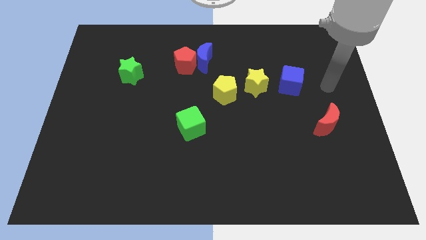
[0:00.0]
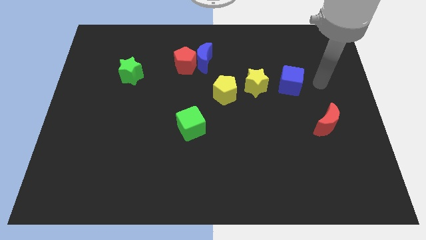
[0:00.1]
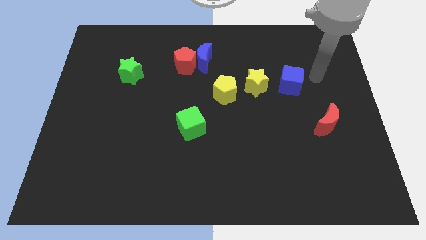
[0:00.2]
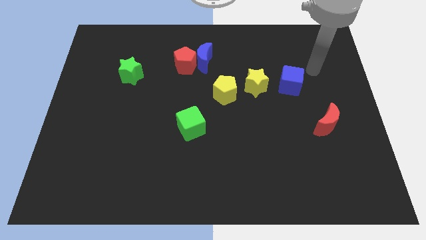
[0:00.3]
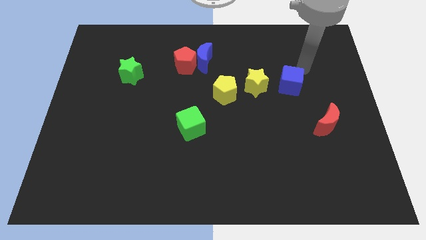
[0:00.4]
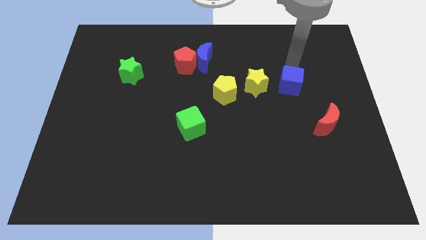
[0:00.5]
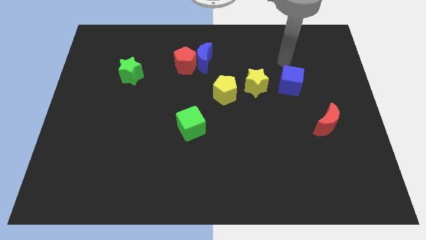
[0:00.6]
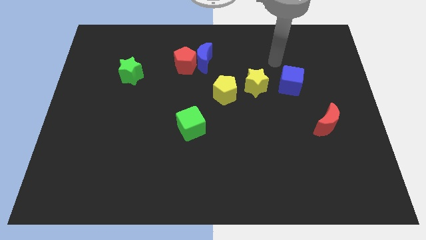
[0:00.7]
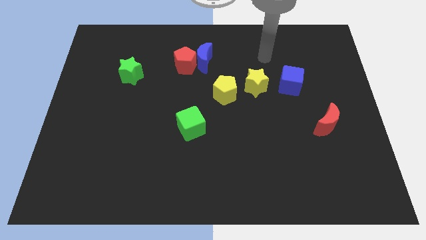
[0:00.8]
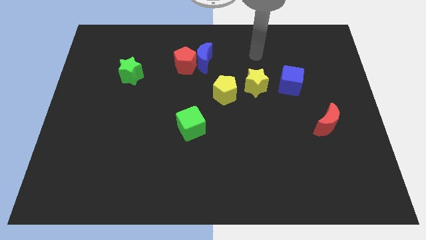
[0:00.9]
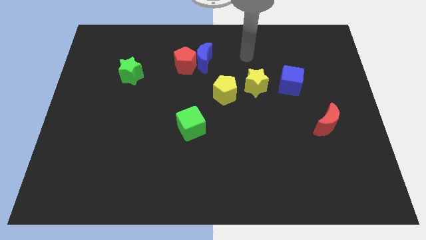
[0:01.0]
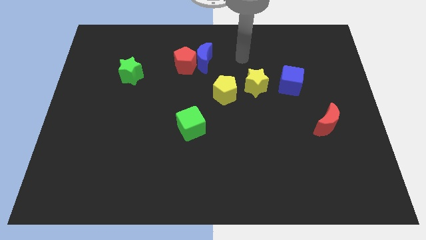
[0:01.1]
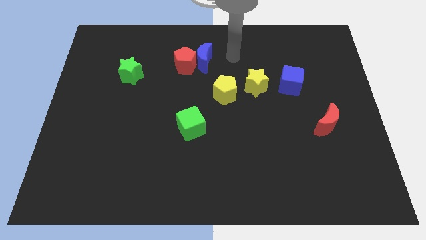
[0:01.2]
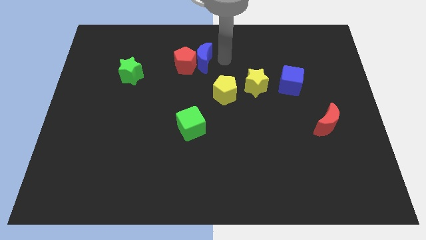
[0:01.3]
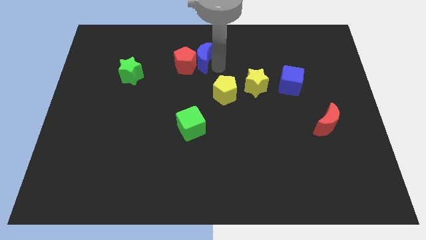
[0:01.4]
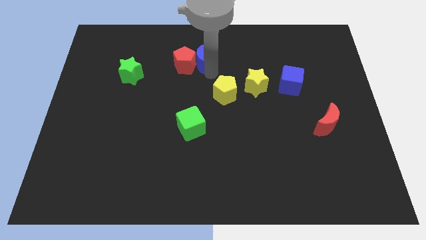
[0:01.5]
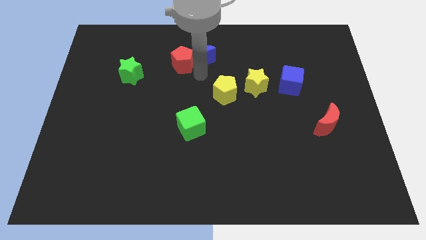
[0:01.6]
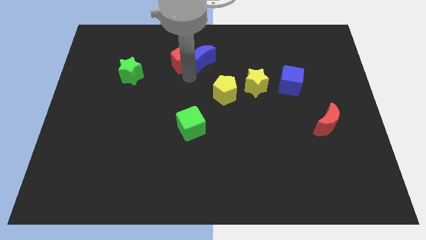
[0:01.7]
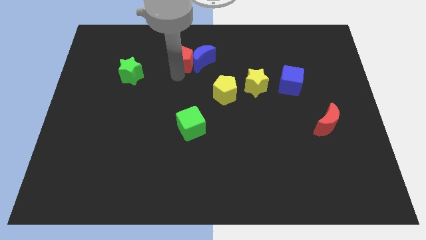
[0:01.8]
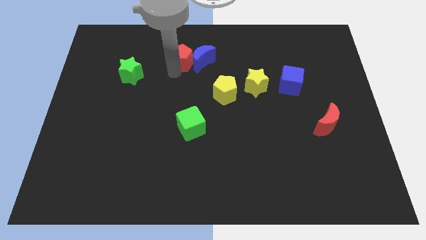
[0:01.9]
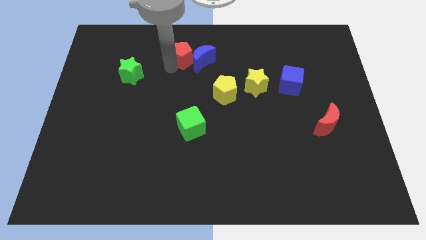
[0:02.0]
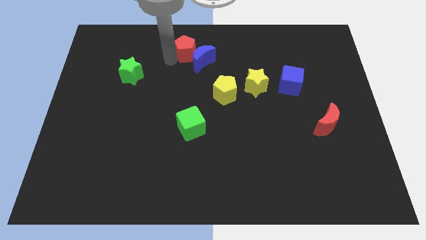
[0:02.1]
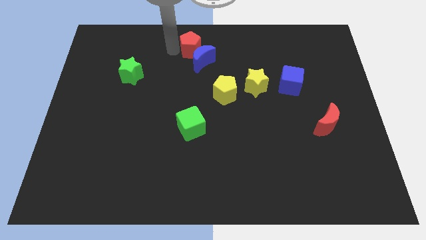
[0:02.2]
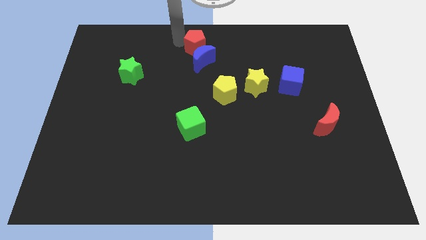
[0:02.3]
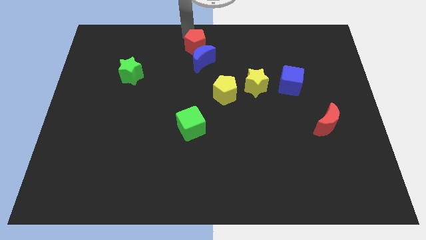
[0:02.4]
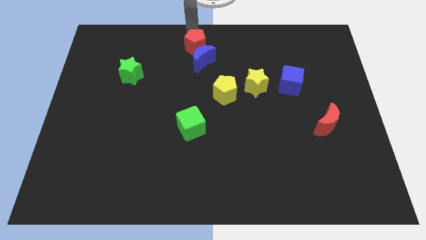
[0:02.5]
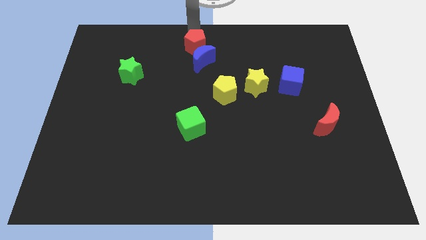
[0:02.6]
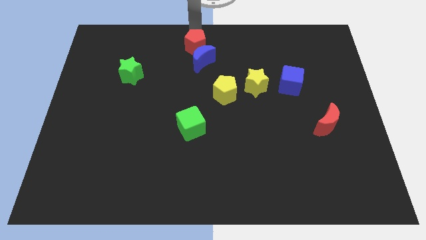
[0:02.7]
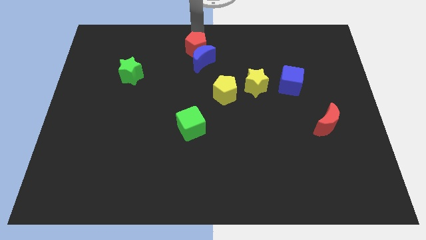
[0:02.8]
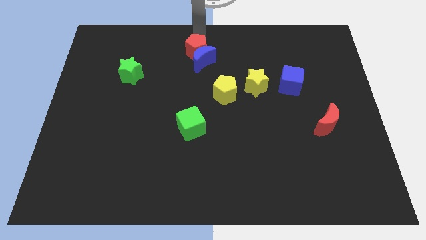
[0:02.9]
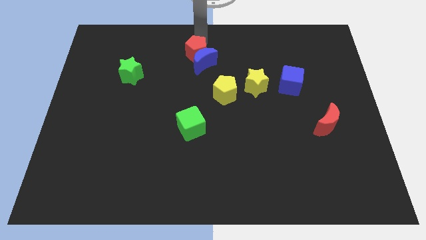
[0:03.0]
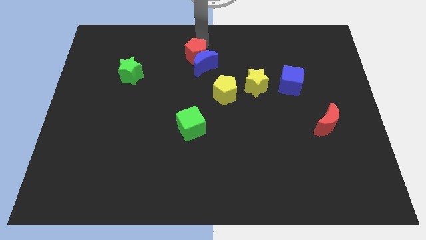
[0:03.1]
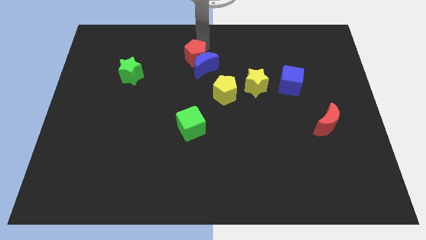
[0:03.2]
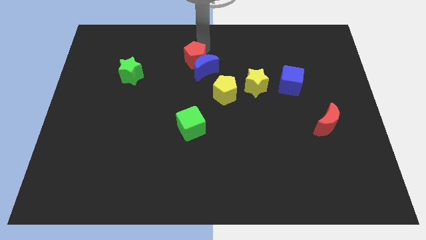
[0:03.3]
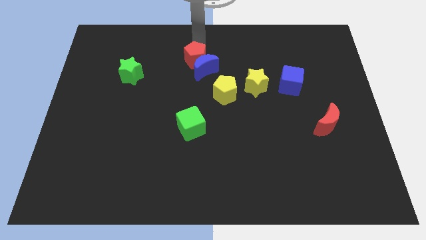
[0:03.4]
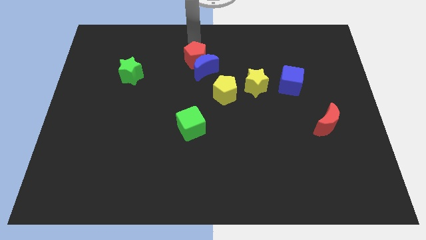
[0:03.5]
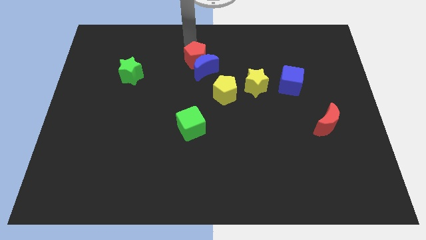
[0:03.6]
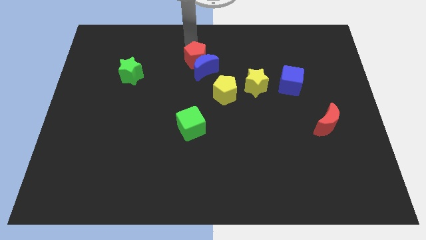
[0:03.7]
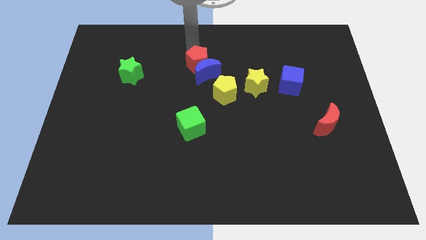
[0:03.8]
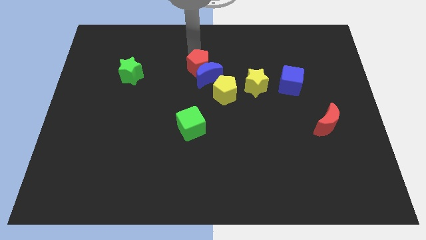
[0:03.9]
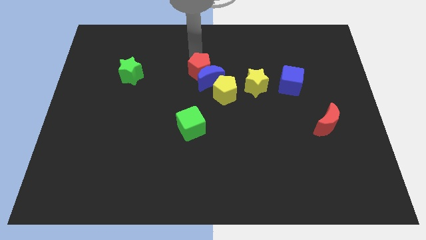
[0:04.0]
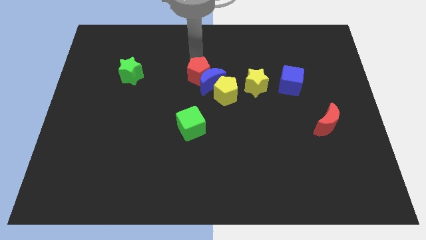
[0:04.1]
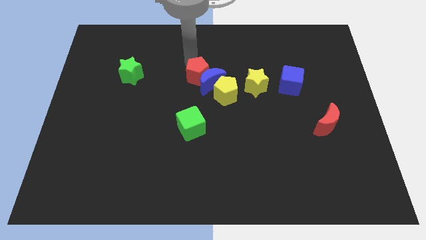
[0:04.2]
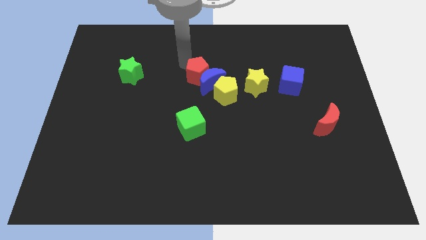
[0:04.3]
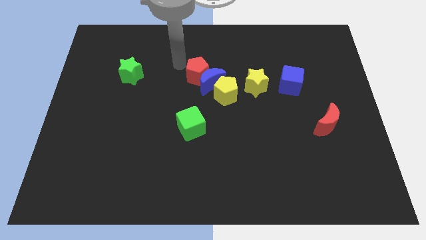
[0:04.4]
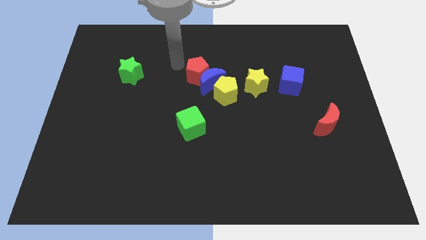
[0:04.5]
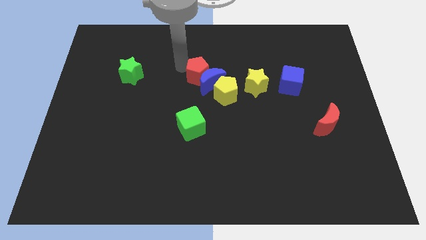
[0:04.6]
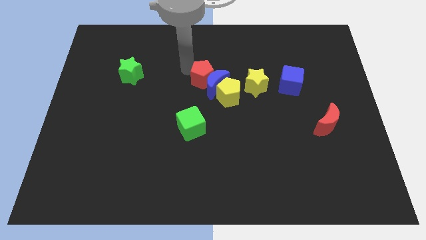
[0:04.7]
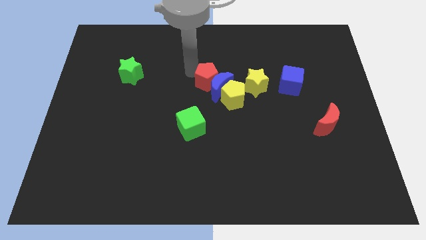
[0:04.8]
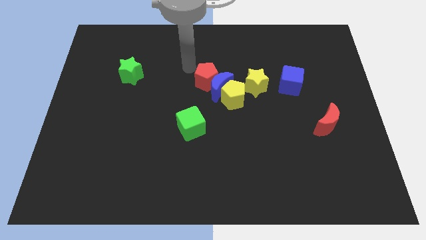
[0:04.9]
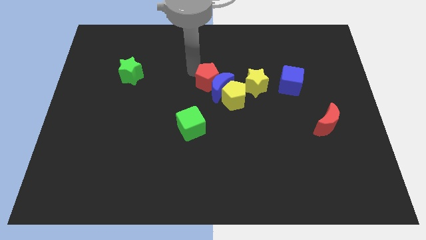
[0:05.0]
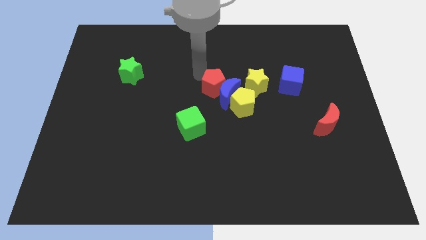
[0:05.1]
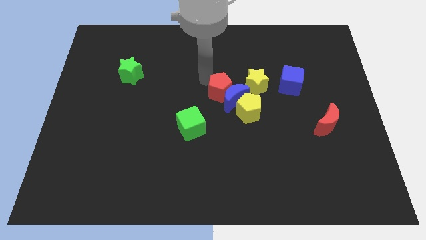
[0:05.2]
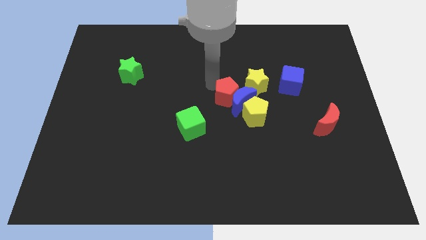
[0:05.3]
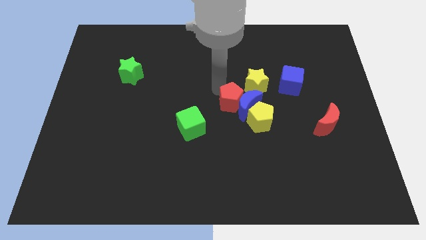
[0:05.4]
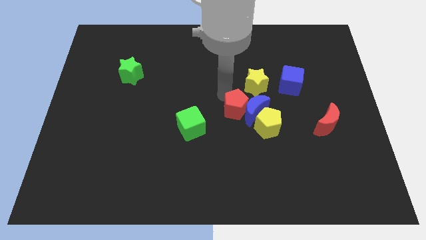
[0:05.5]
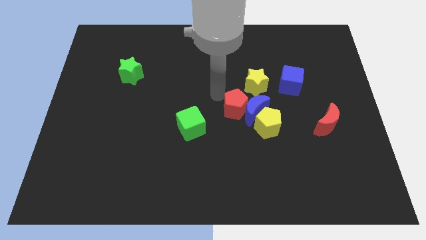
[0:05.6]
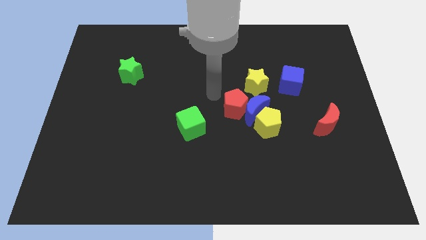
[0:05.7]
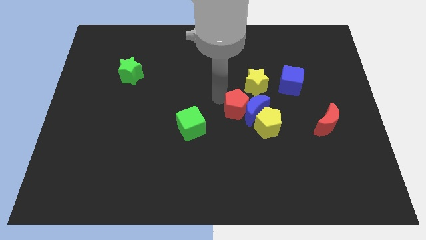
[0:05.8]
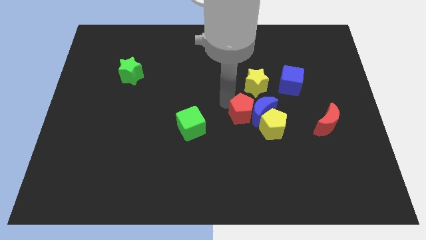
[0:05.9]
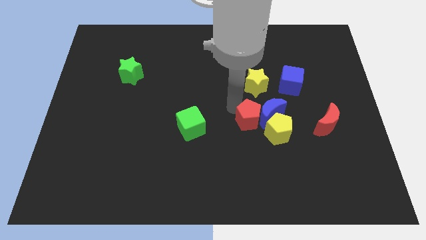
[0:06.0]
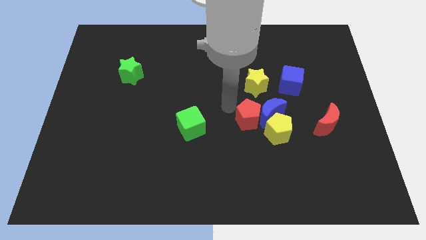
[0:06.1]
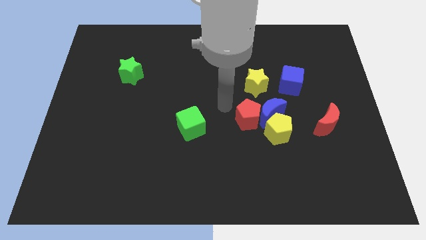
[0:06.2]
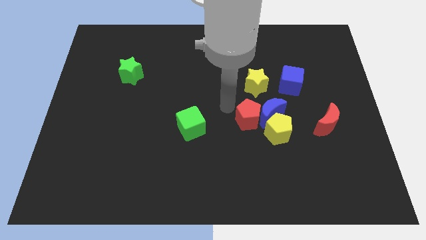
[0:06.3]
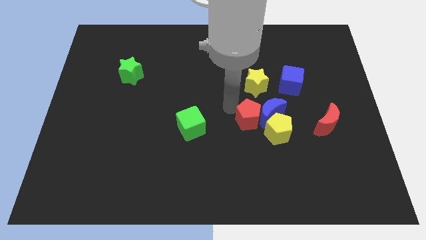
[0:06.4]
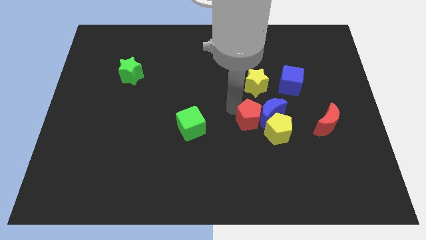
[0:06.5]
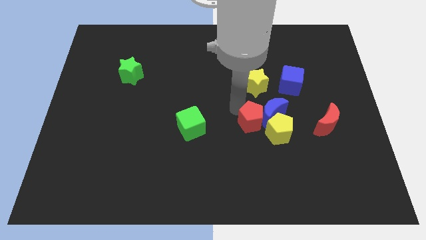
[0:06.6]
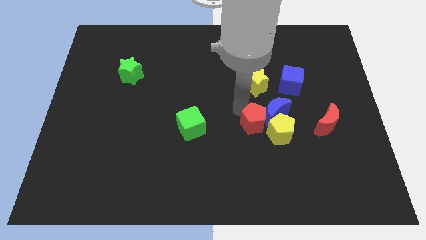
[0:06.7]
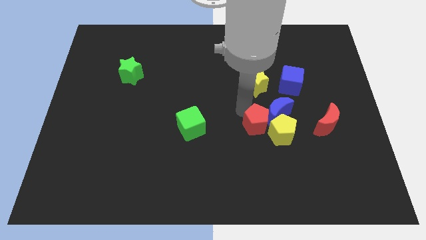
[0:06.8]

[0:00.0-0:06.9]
put the red pentagon close to the yellow pentagon

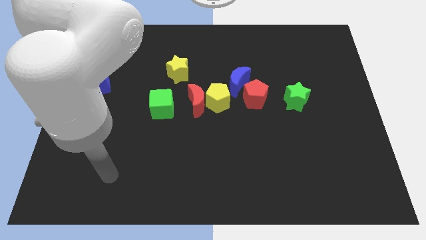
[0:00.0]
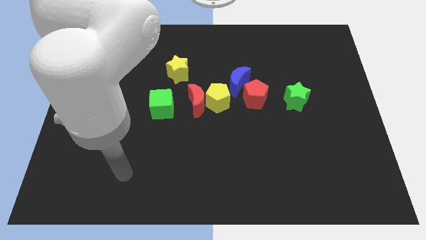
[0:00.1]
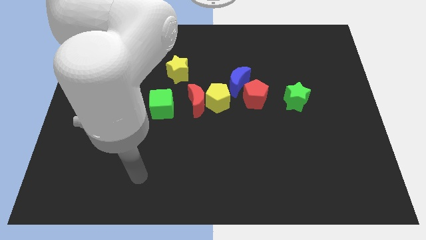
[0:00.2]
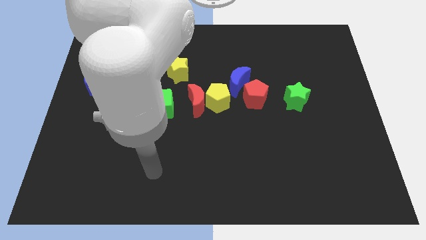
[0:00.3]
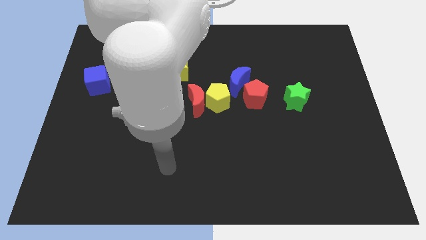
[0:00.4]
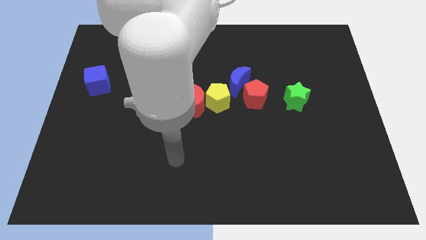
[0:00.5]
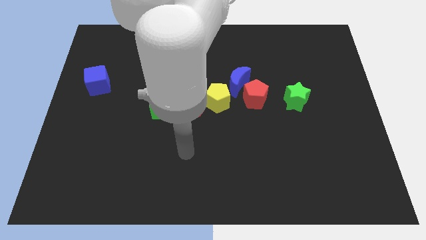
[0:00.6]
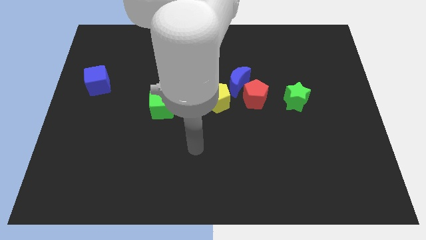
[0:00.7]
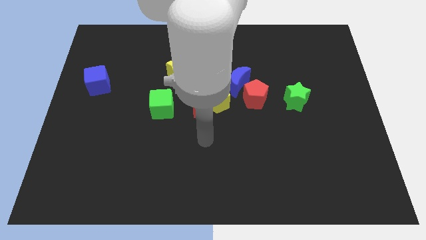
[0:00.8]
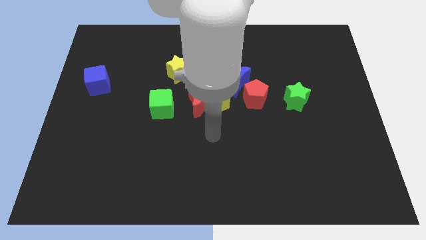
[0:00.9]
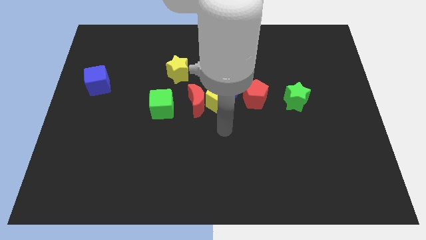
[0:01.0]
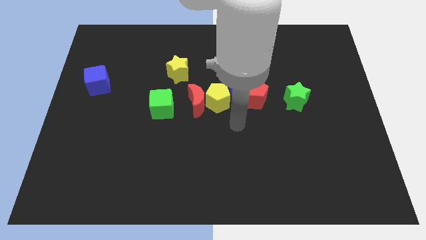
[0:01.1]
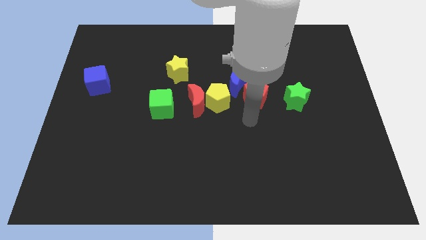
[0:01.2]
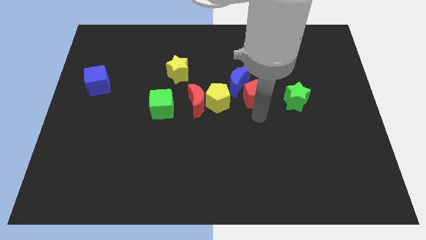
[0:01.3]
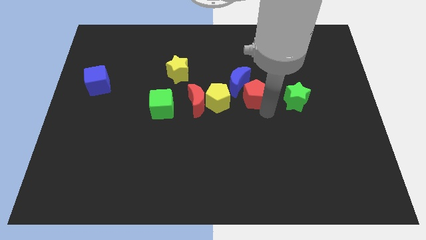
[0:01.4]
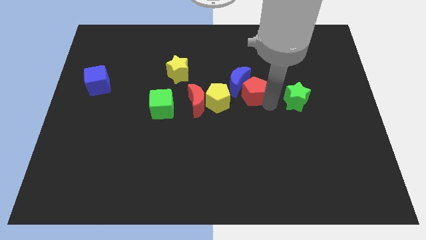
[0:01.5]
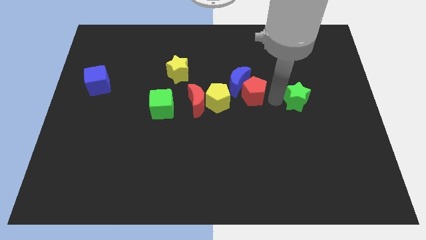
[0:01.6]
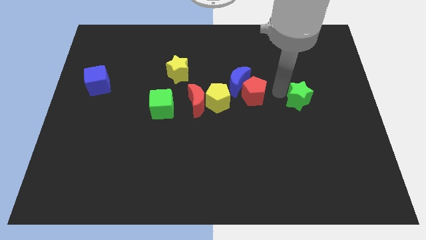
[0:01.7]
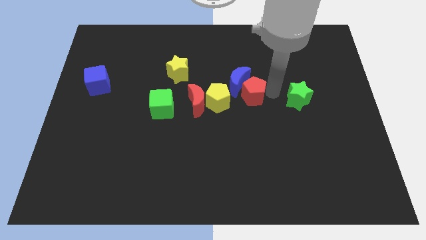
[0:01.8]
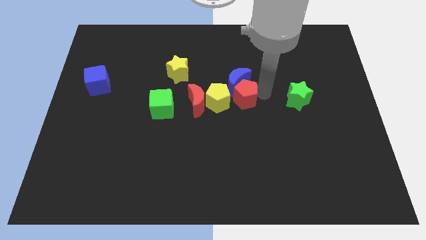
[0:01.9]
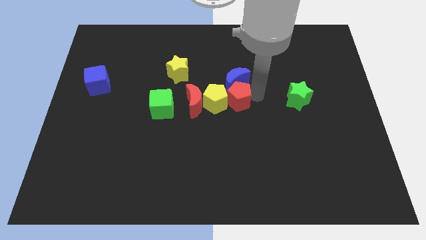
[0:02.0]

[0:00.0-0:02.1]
slide the red pentagon to the yellow pentagon
